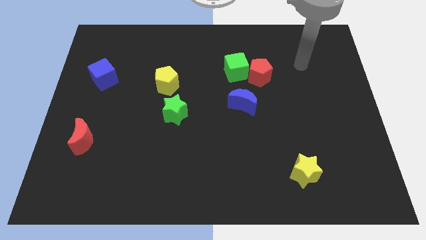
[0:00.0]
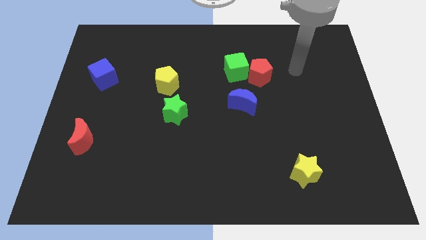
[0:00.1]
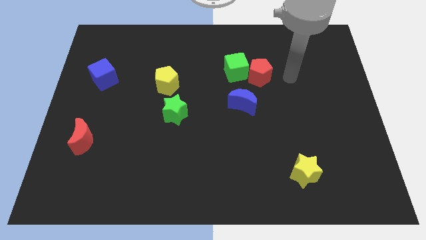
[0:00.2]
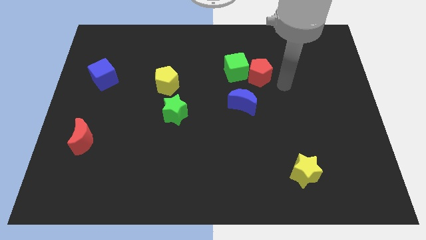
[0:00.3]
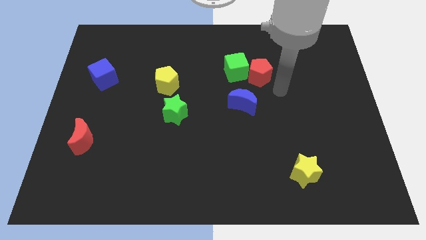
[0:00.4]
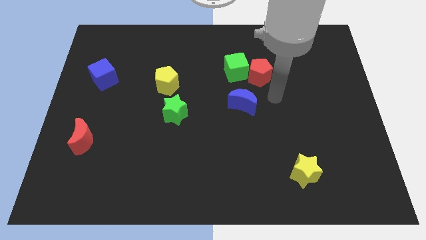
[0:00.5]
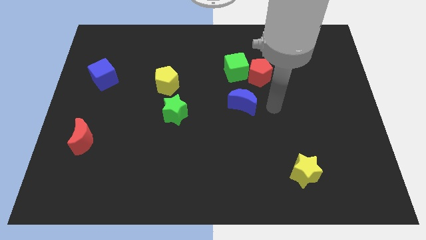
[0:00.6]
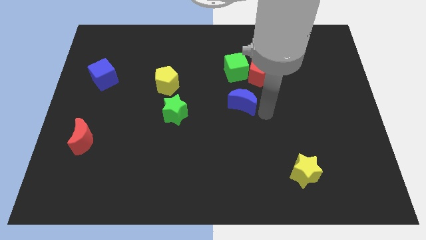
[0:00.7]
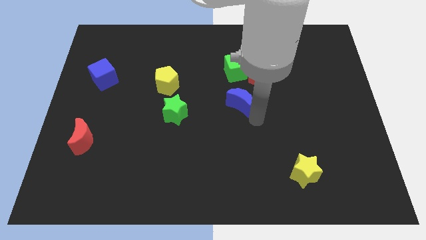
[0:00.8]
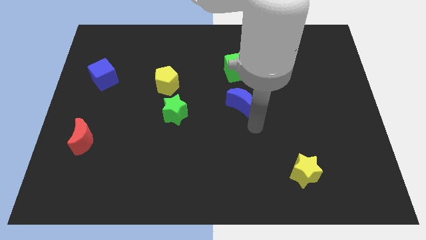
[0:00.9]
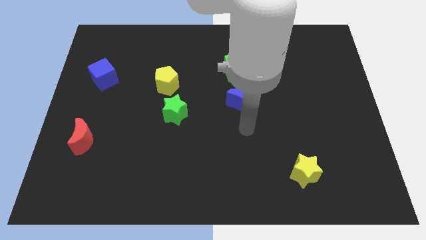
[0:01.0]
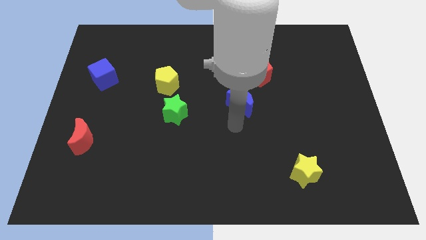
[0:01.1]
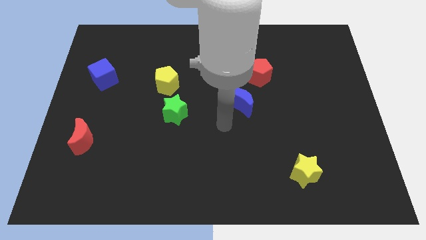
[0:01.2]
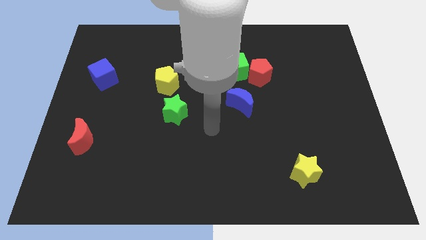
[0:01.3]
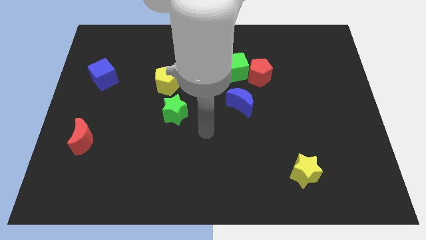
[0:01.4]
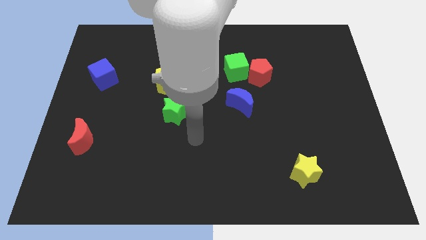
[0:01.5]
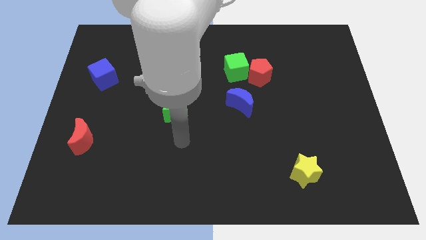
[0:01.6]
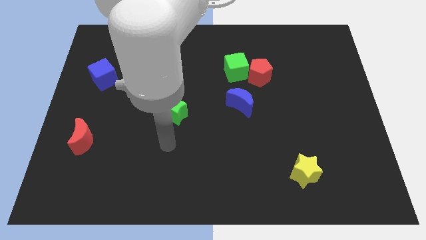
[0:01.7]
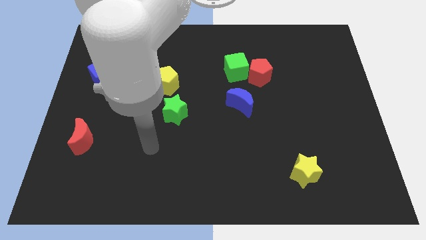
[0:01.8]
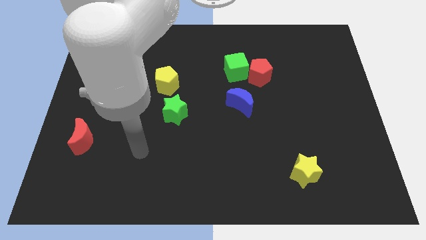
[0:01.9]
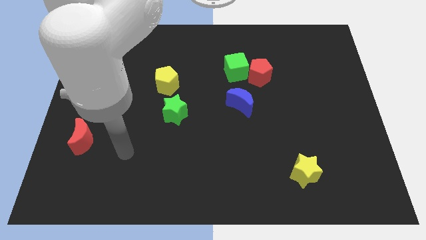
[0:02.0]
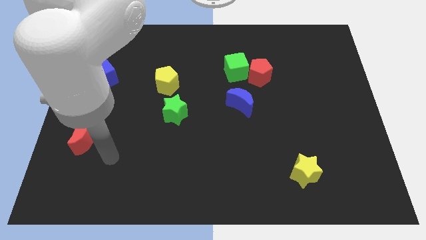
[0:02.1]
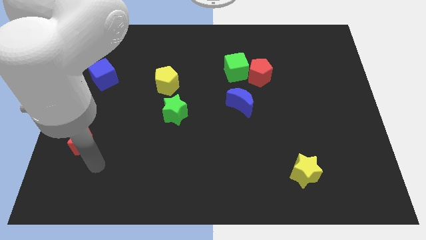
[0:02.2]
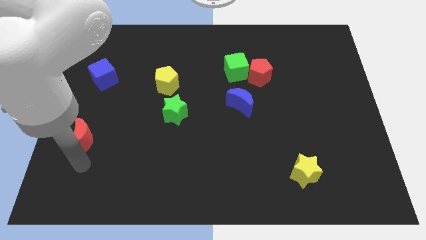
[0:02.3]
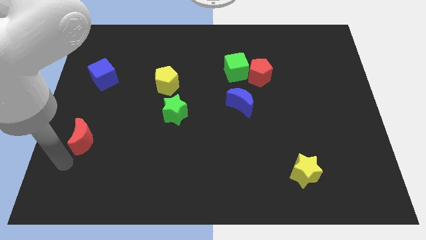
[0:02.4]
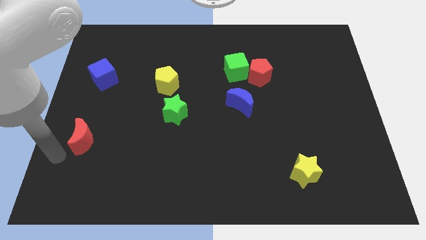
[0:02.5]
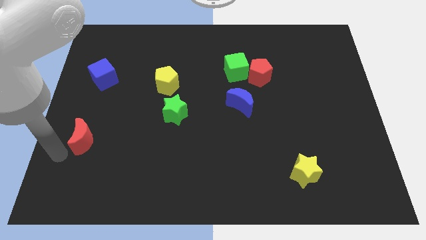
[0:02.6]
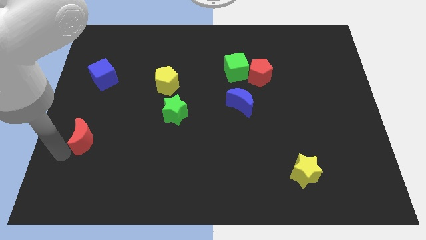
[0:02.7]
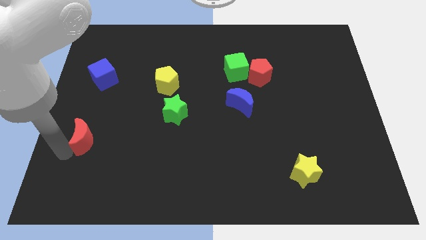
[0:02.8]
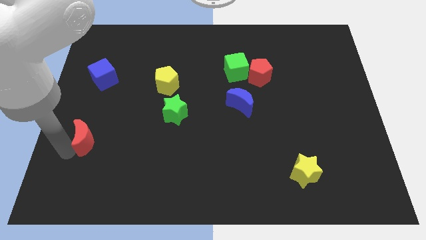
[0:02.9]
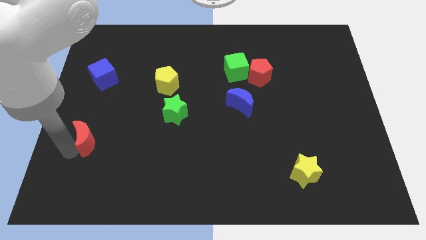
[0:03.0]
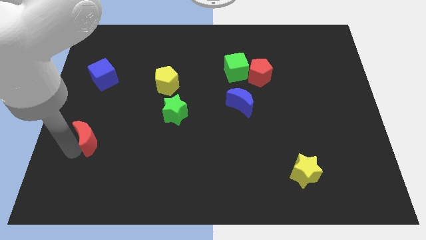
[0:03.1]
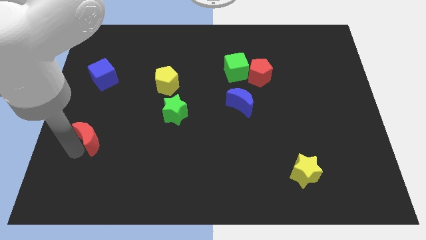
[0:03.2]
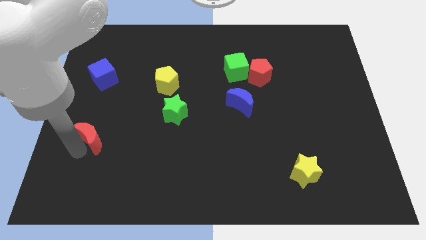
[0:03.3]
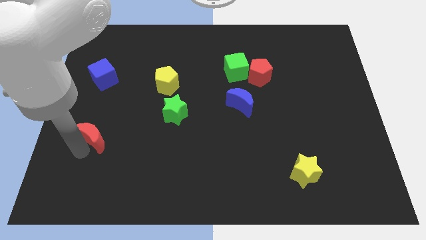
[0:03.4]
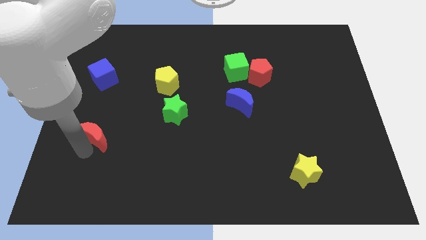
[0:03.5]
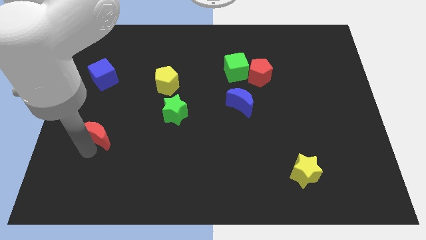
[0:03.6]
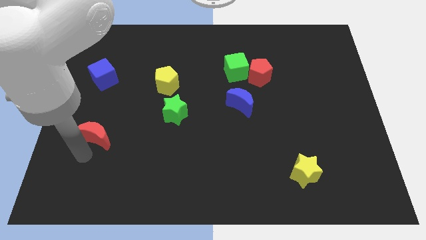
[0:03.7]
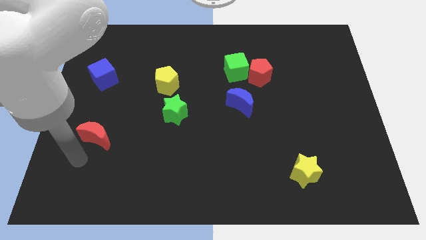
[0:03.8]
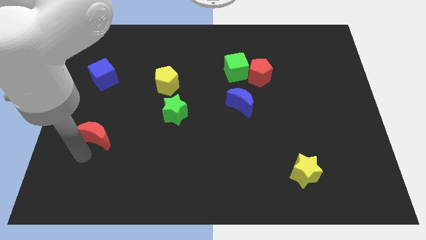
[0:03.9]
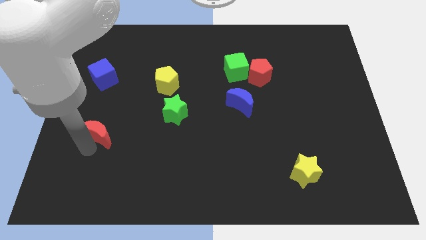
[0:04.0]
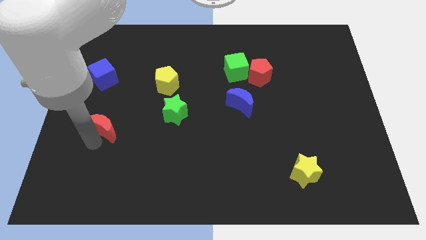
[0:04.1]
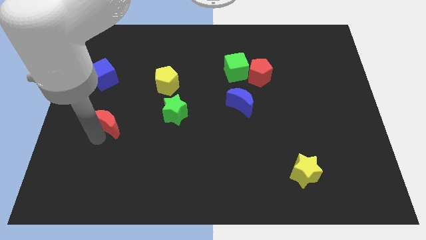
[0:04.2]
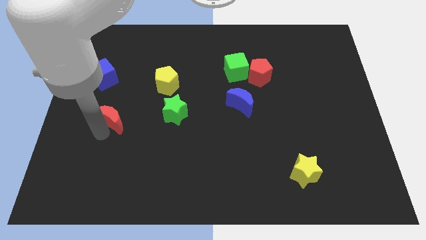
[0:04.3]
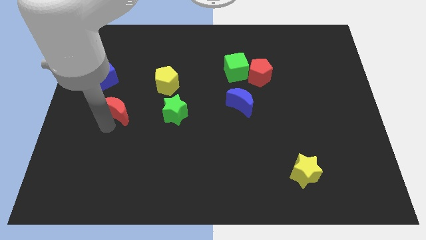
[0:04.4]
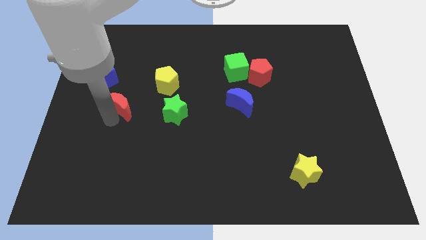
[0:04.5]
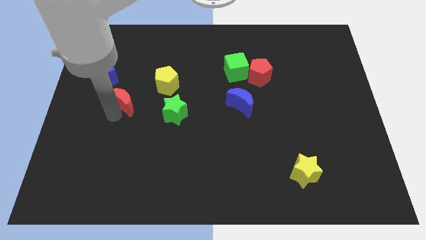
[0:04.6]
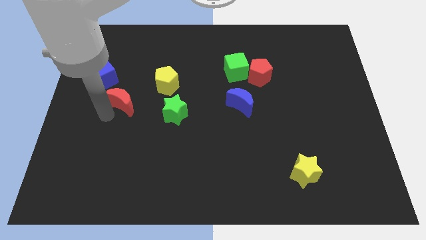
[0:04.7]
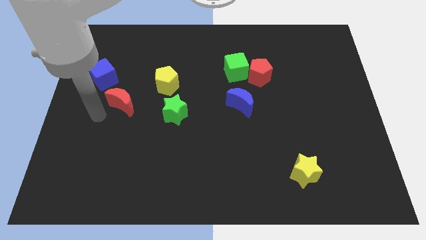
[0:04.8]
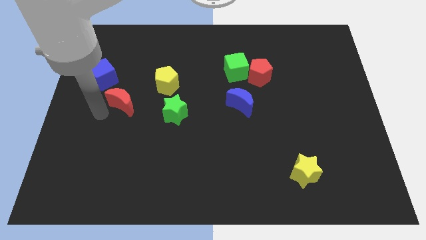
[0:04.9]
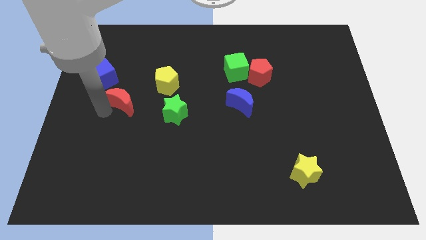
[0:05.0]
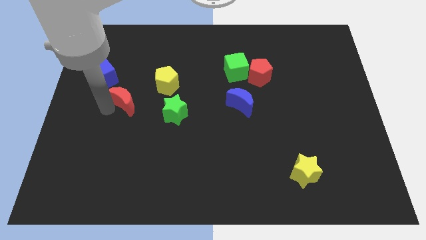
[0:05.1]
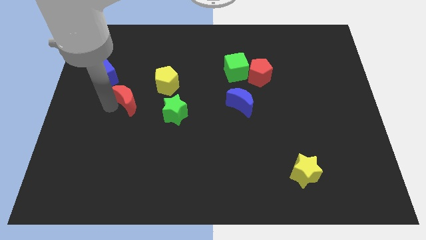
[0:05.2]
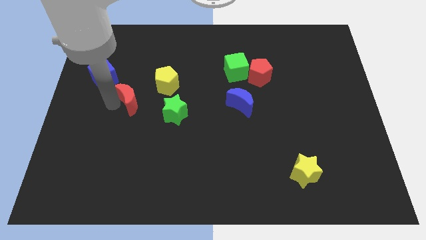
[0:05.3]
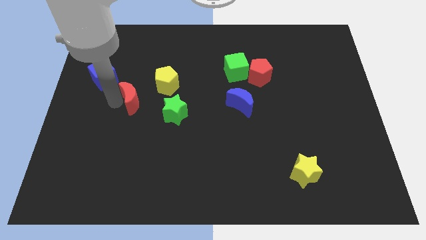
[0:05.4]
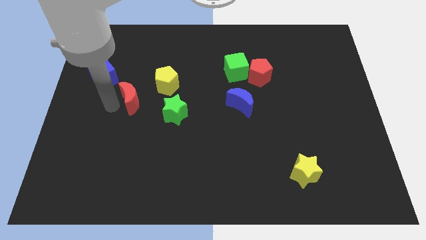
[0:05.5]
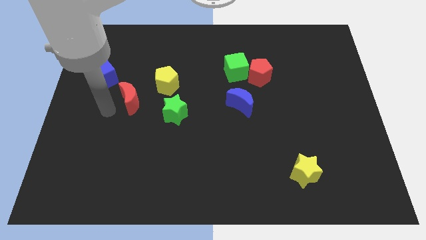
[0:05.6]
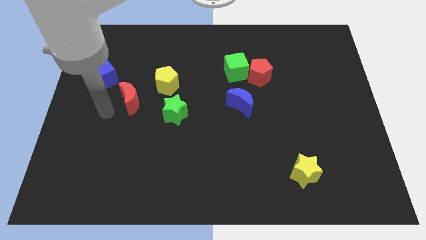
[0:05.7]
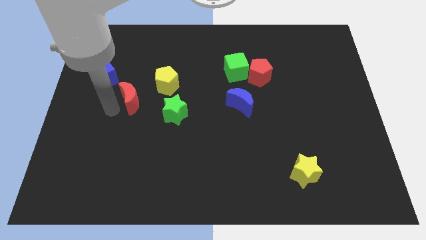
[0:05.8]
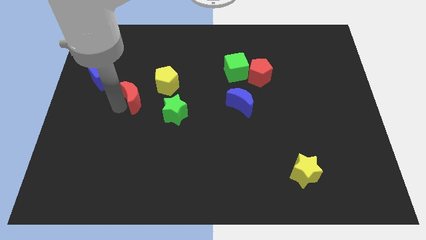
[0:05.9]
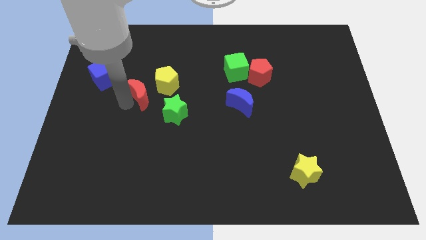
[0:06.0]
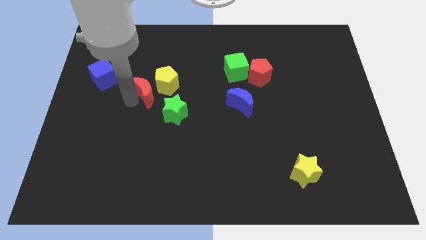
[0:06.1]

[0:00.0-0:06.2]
put the red moon close to the yellow pentagon

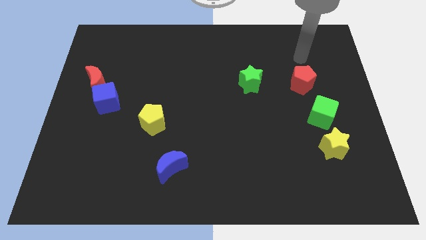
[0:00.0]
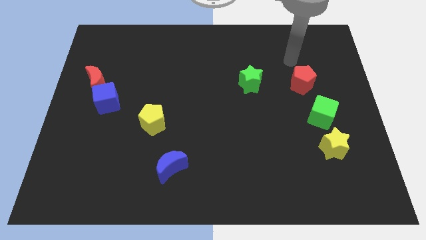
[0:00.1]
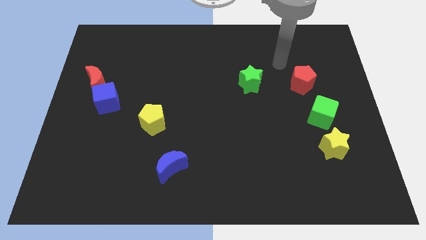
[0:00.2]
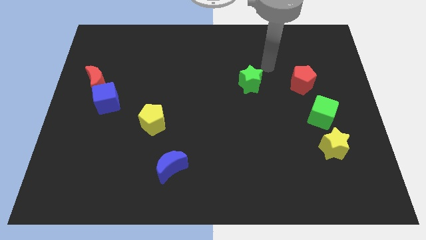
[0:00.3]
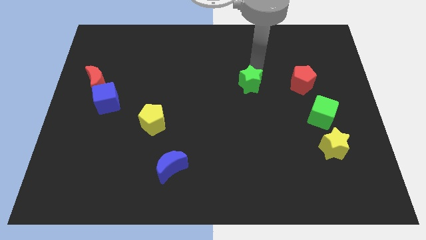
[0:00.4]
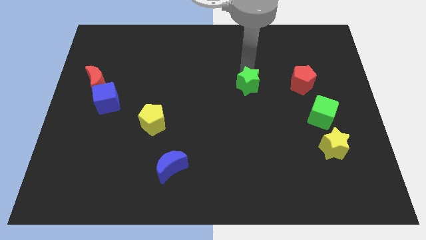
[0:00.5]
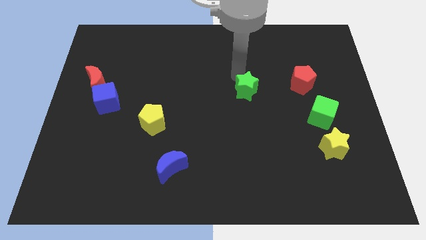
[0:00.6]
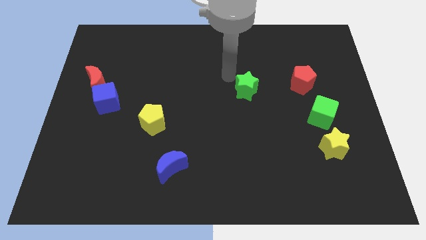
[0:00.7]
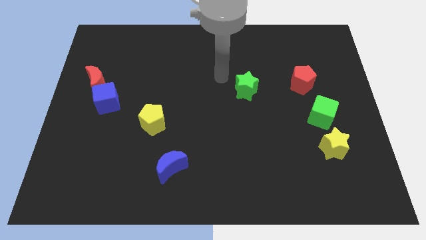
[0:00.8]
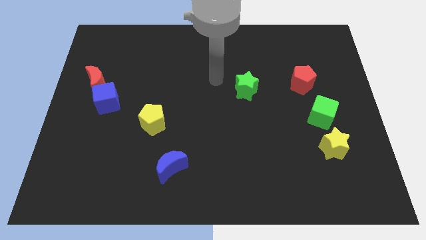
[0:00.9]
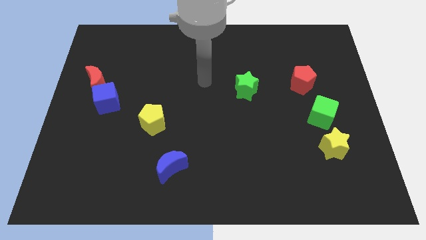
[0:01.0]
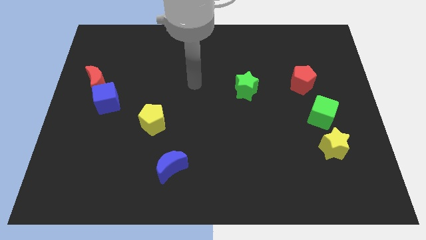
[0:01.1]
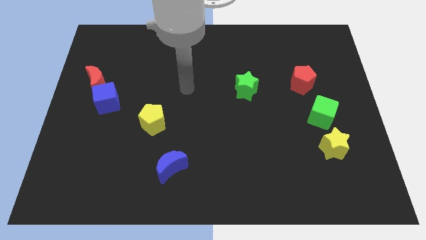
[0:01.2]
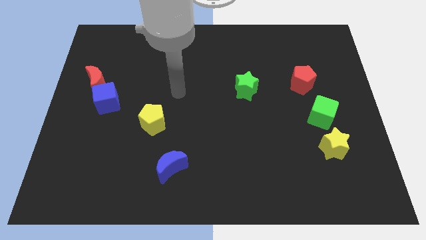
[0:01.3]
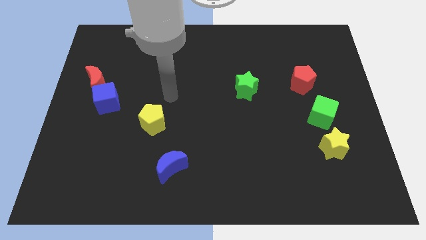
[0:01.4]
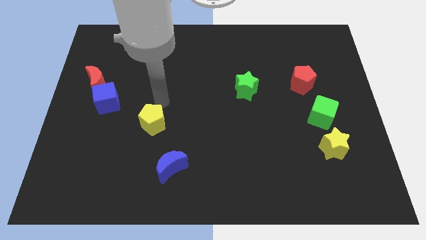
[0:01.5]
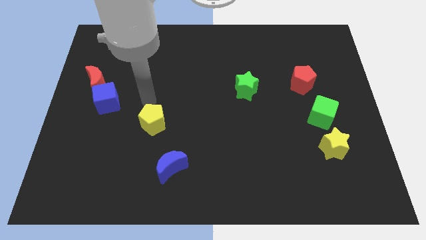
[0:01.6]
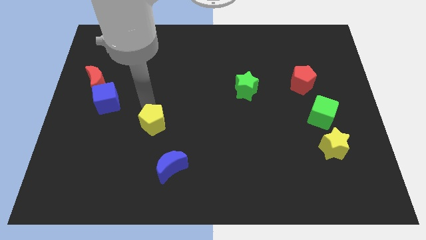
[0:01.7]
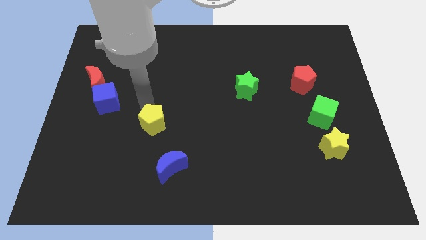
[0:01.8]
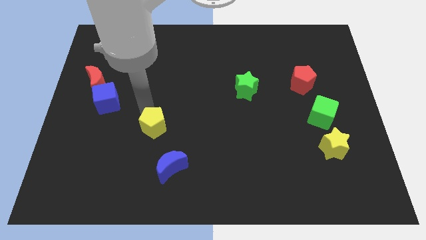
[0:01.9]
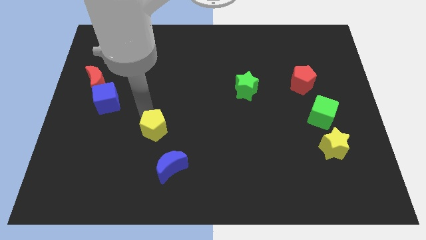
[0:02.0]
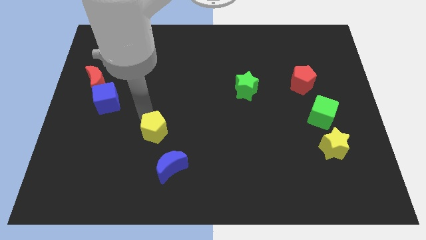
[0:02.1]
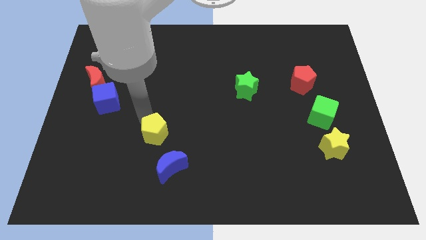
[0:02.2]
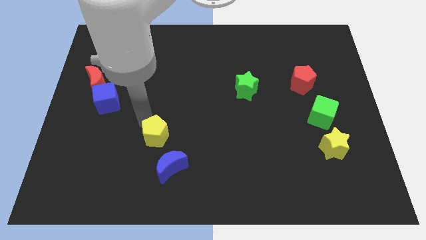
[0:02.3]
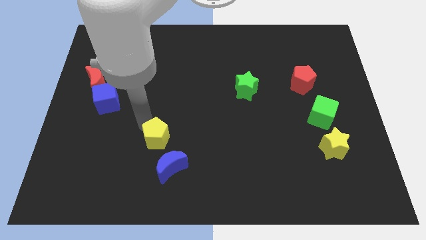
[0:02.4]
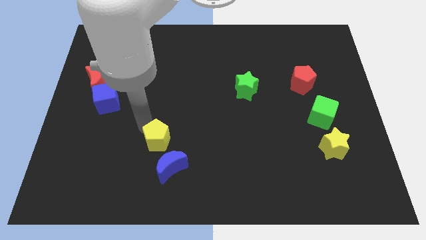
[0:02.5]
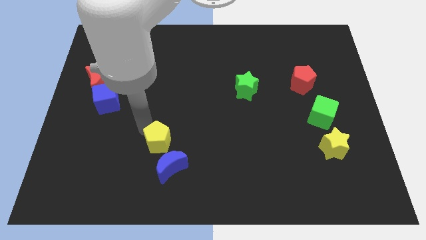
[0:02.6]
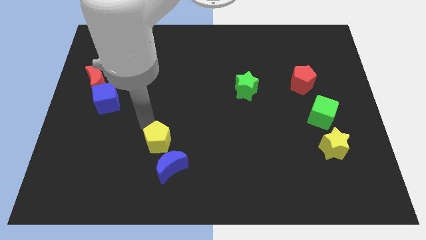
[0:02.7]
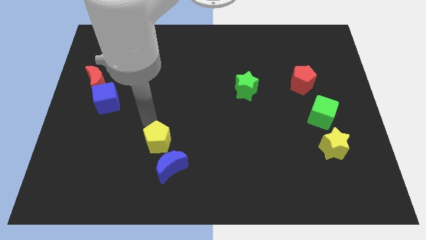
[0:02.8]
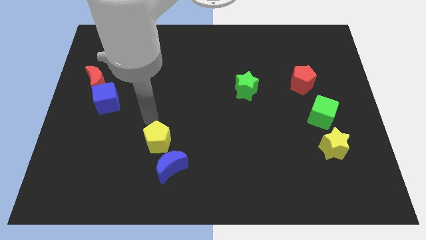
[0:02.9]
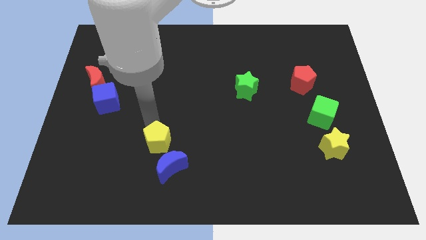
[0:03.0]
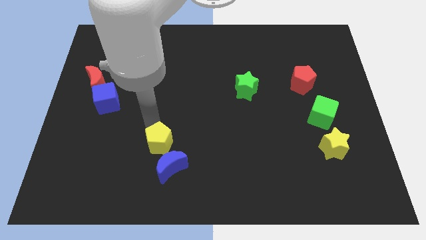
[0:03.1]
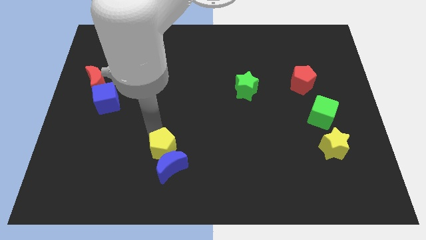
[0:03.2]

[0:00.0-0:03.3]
slide the yellow pentagon to the blue moon
